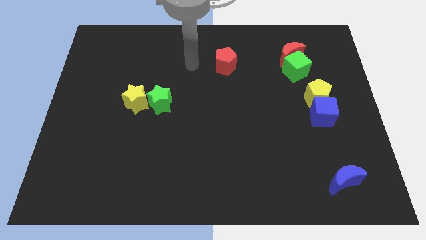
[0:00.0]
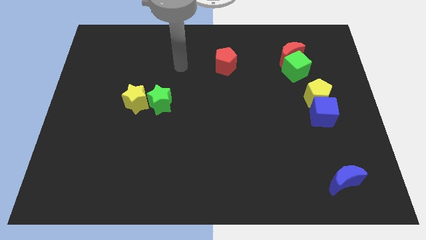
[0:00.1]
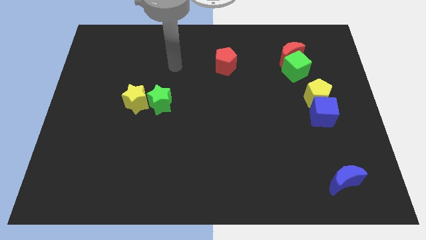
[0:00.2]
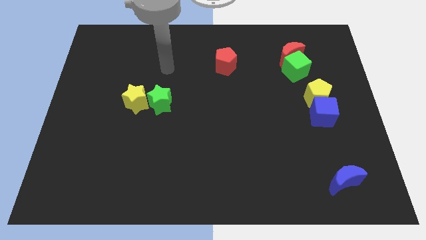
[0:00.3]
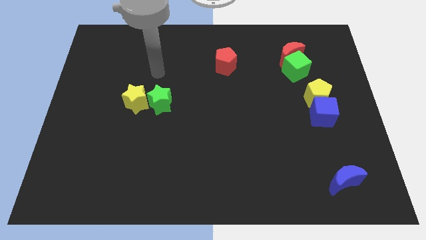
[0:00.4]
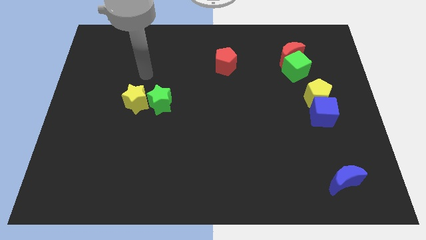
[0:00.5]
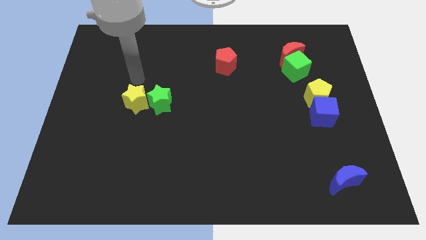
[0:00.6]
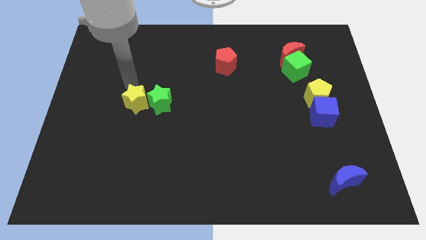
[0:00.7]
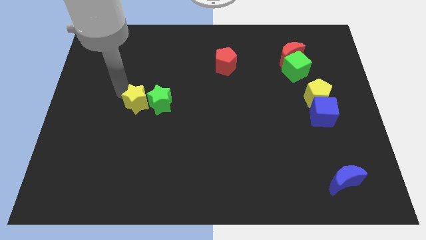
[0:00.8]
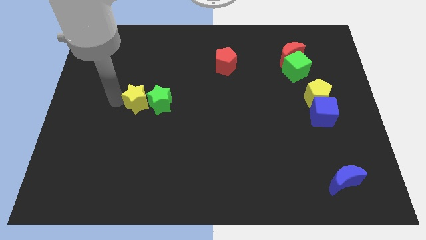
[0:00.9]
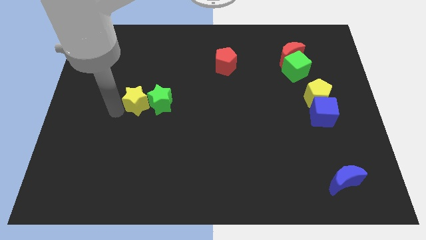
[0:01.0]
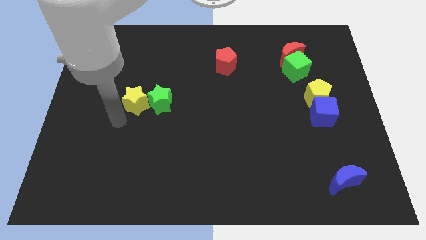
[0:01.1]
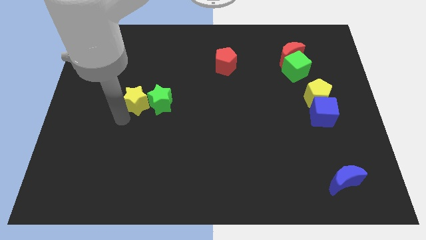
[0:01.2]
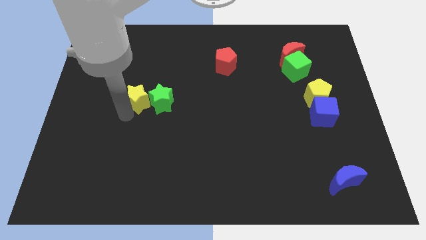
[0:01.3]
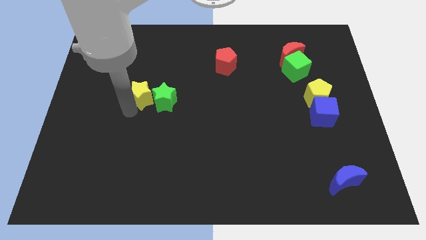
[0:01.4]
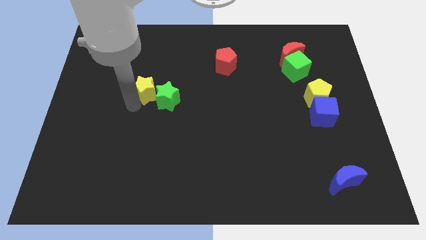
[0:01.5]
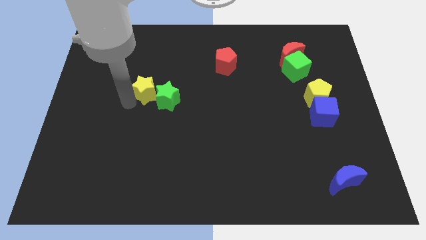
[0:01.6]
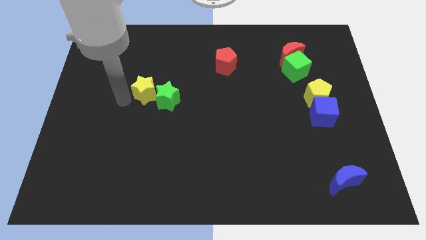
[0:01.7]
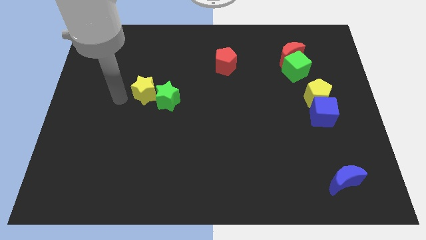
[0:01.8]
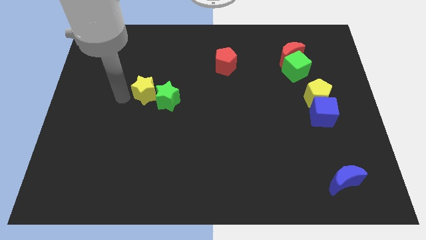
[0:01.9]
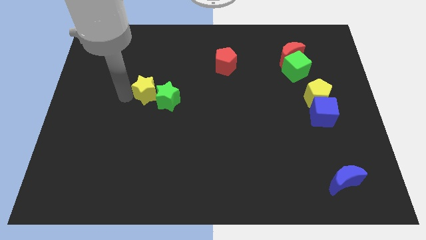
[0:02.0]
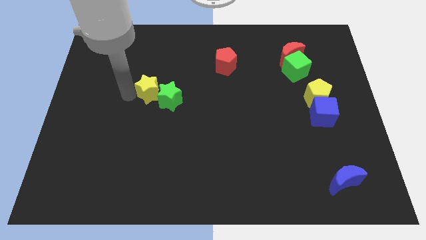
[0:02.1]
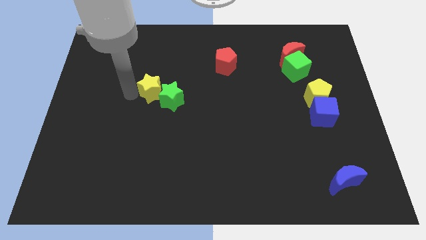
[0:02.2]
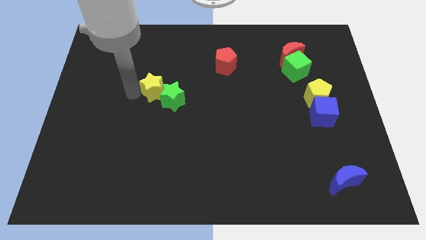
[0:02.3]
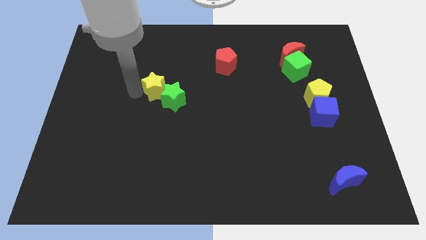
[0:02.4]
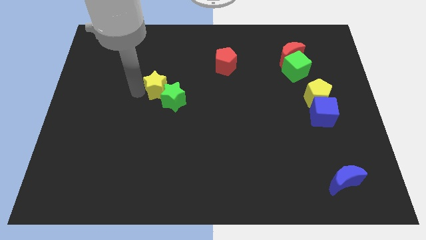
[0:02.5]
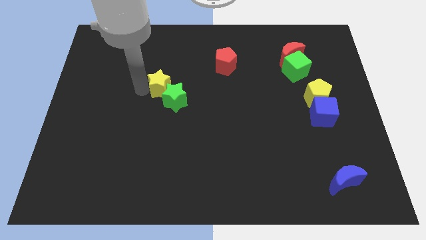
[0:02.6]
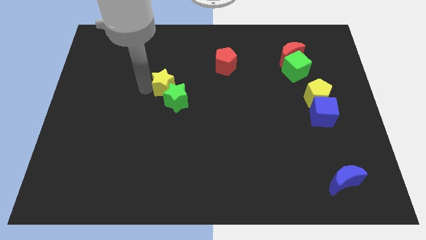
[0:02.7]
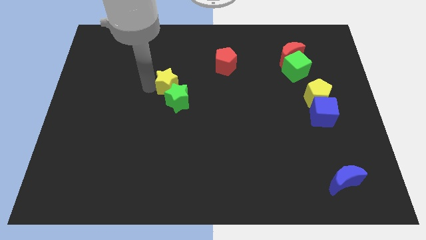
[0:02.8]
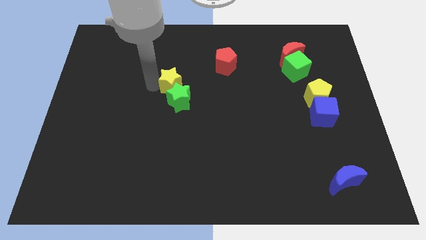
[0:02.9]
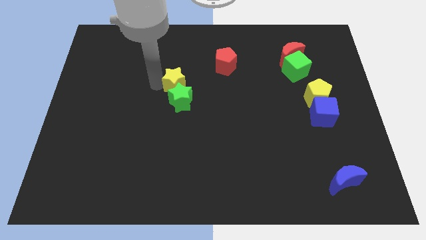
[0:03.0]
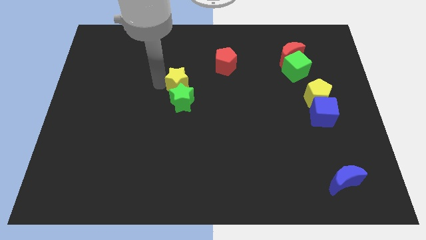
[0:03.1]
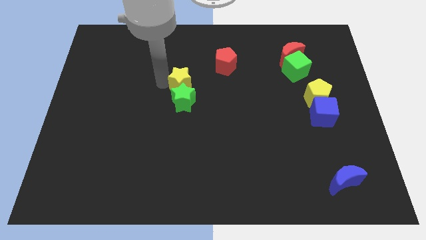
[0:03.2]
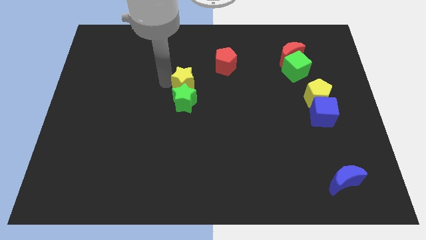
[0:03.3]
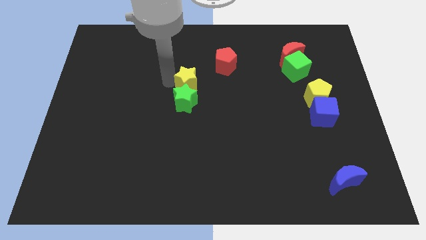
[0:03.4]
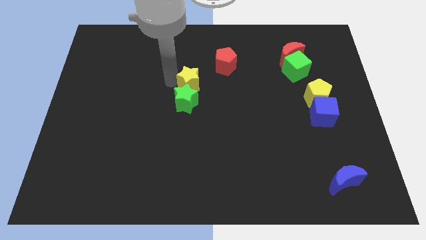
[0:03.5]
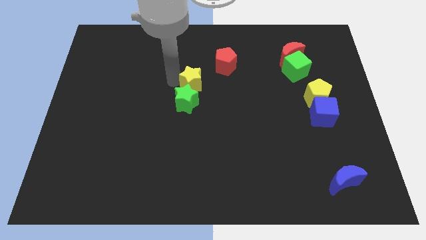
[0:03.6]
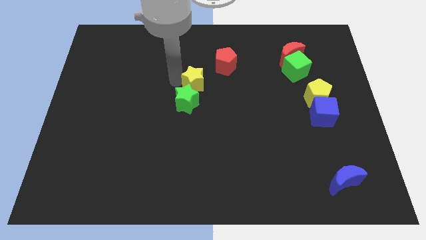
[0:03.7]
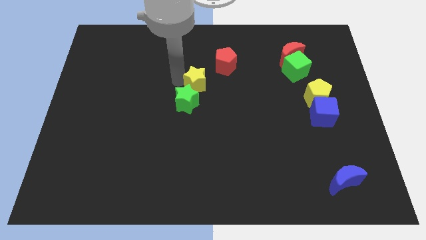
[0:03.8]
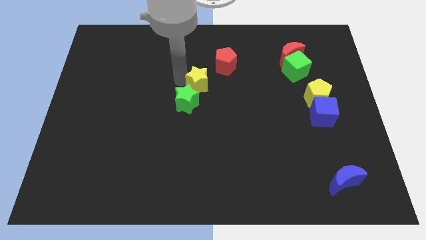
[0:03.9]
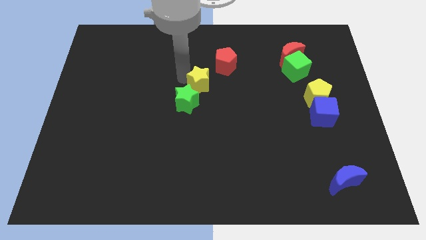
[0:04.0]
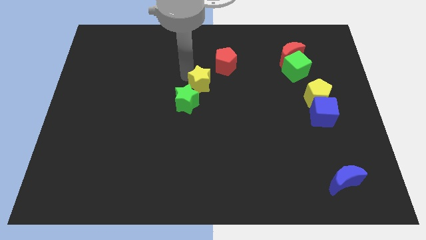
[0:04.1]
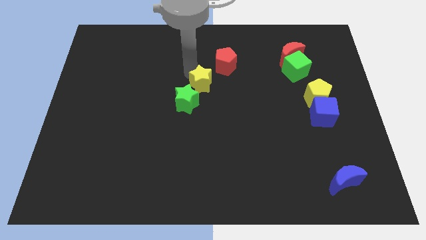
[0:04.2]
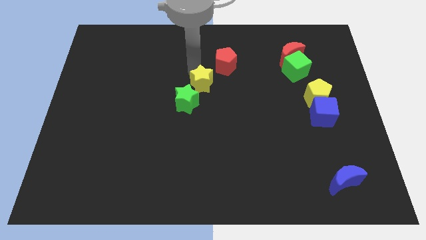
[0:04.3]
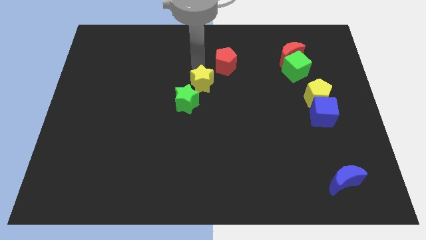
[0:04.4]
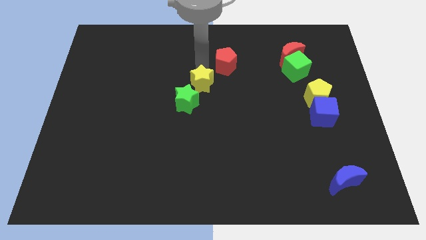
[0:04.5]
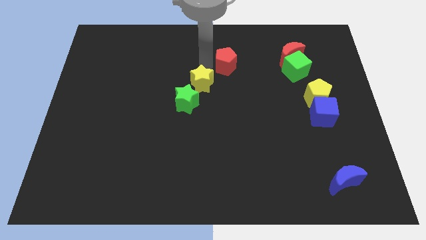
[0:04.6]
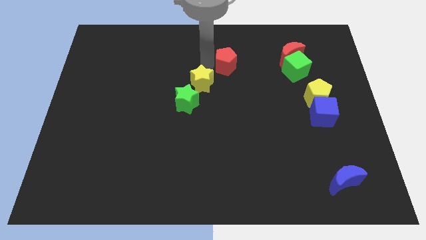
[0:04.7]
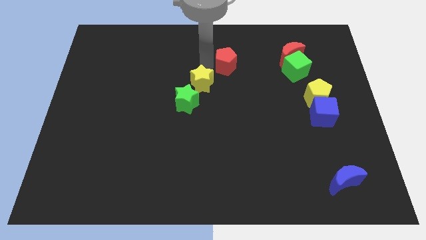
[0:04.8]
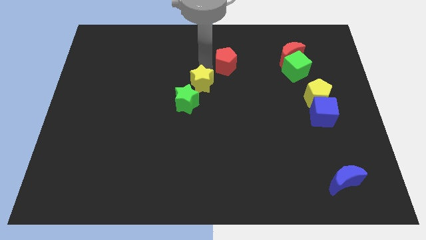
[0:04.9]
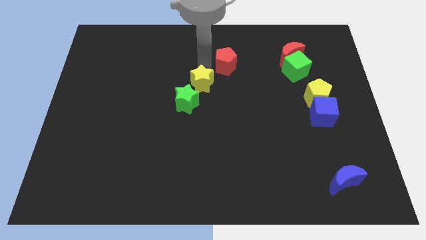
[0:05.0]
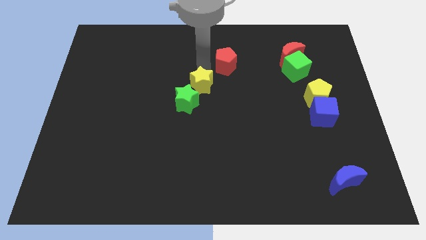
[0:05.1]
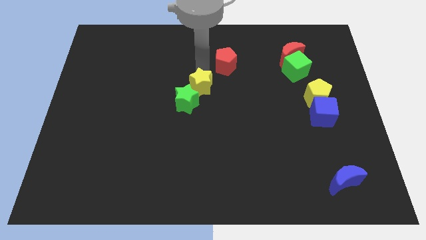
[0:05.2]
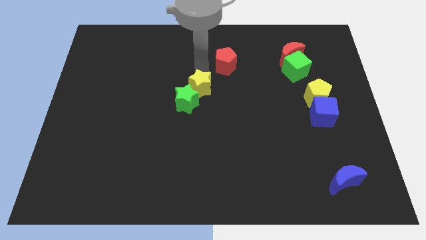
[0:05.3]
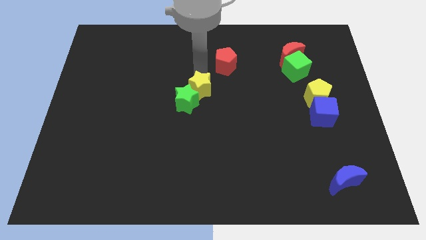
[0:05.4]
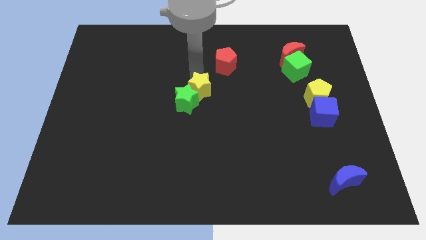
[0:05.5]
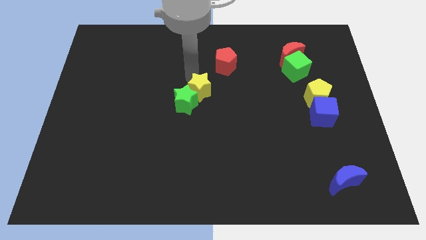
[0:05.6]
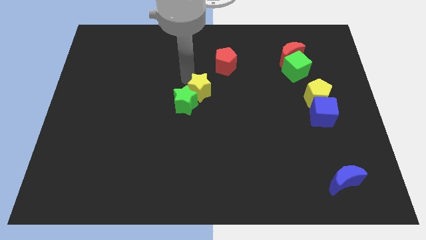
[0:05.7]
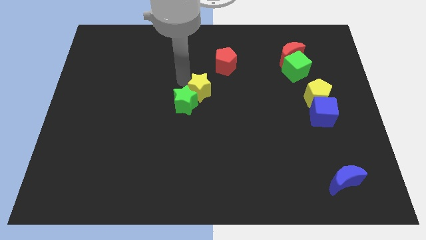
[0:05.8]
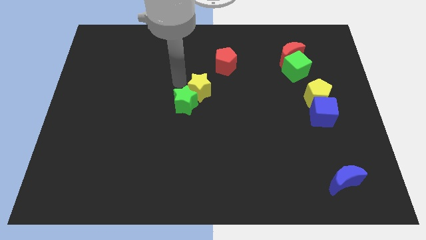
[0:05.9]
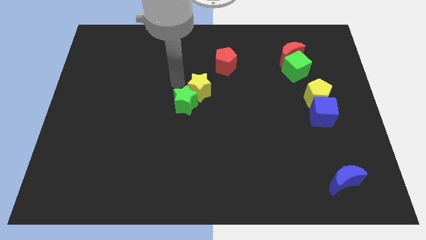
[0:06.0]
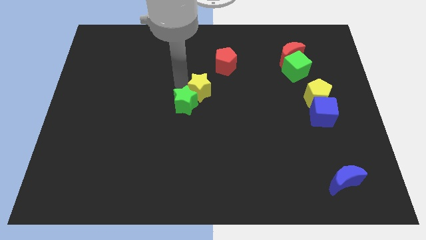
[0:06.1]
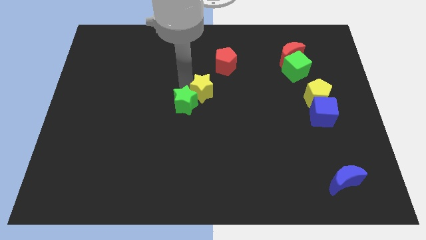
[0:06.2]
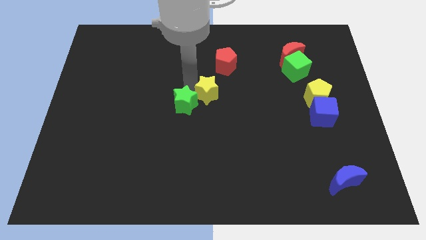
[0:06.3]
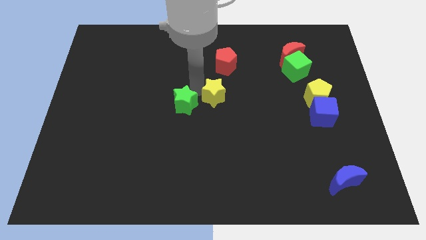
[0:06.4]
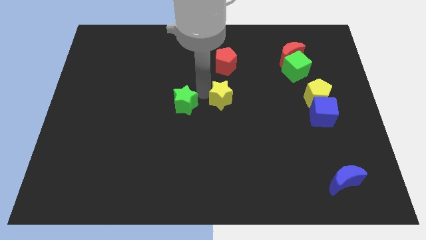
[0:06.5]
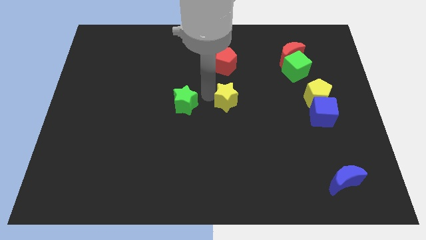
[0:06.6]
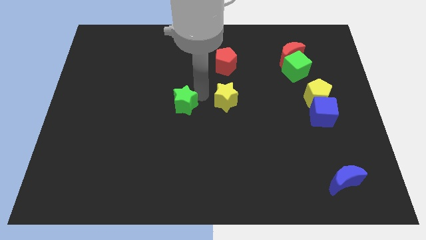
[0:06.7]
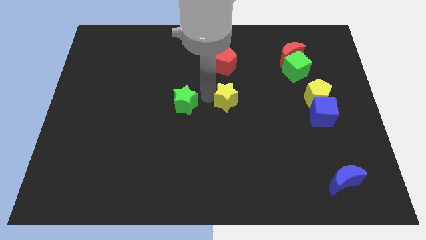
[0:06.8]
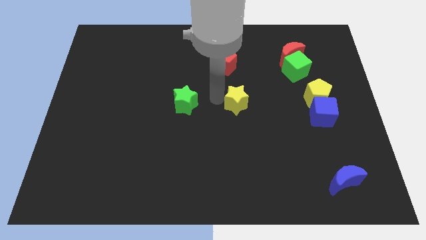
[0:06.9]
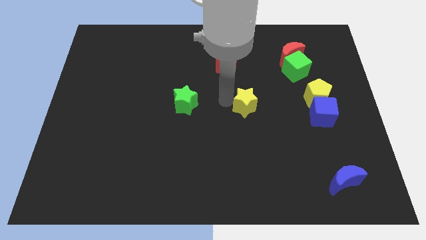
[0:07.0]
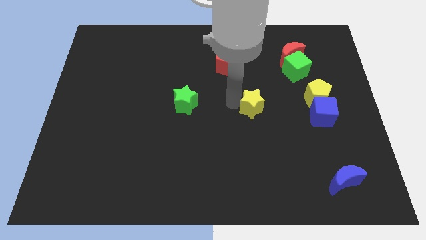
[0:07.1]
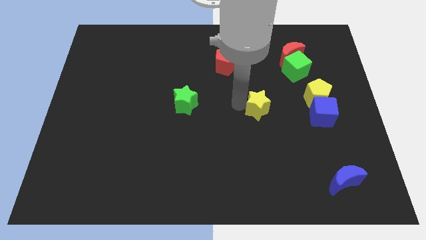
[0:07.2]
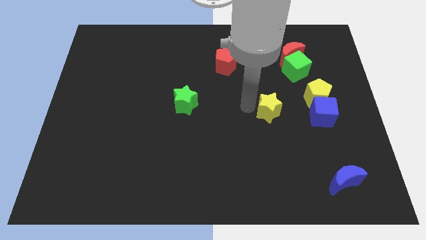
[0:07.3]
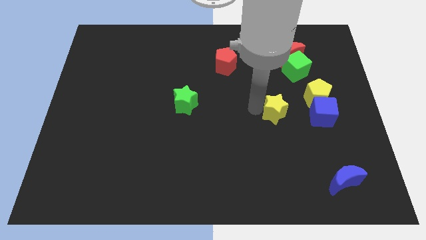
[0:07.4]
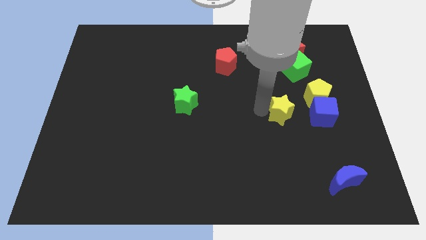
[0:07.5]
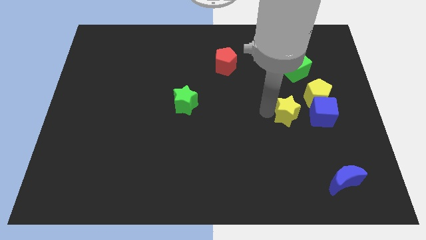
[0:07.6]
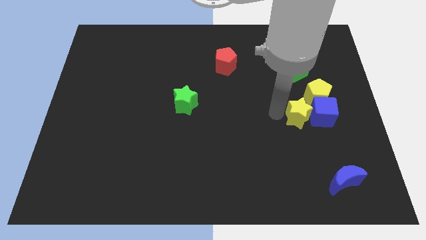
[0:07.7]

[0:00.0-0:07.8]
slide the yellow star to the blue cube
